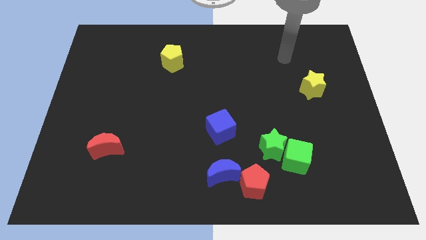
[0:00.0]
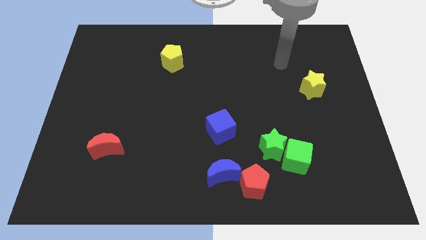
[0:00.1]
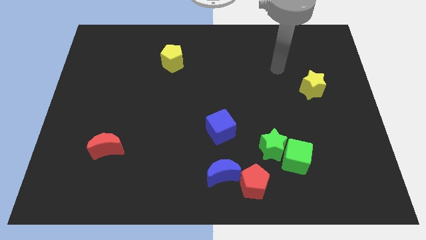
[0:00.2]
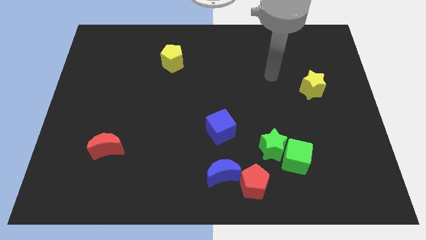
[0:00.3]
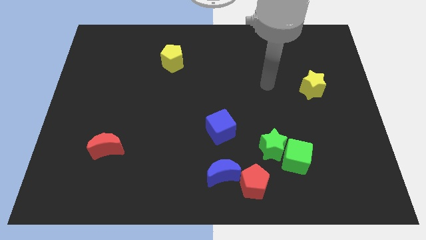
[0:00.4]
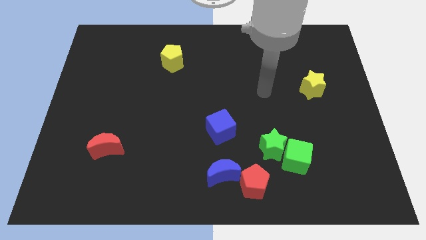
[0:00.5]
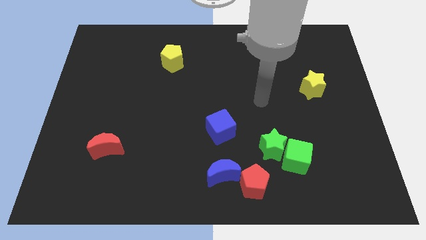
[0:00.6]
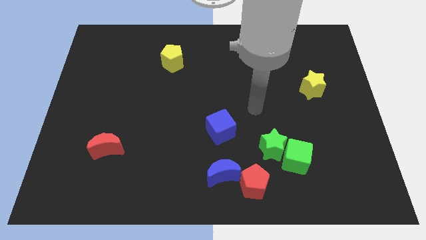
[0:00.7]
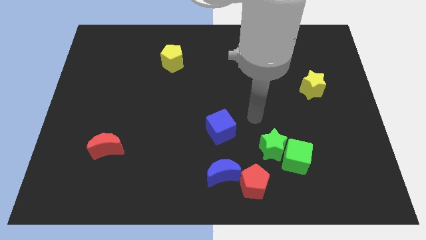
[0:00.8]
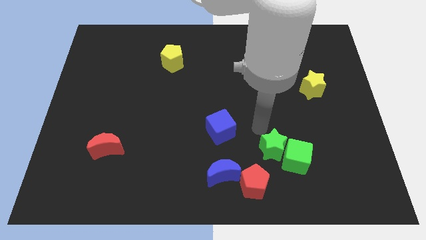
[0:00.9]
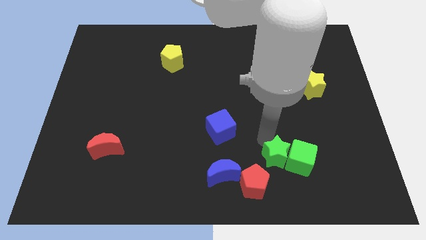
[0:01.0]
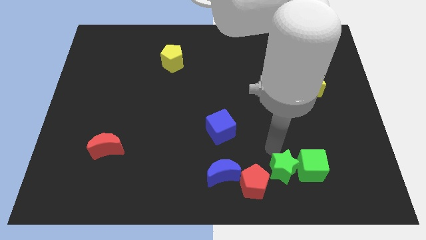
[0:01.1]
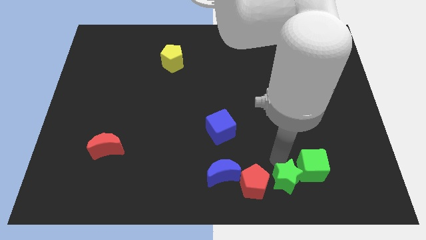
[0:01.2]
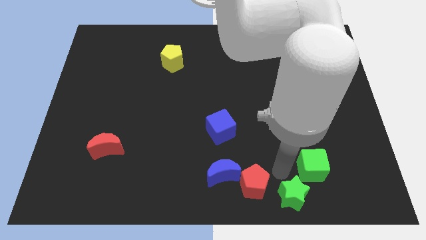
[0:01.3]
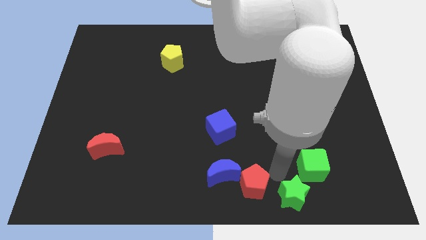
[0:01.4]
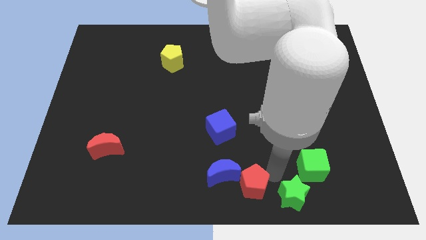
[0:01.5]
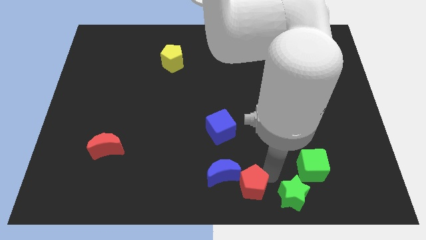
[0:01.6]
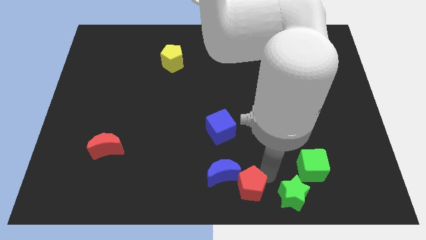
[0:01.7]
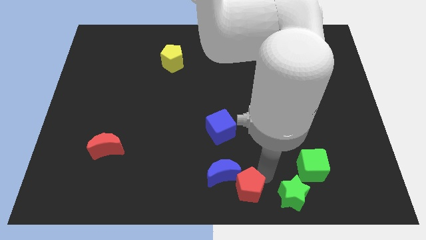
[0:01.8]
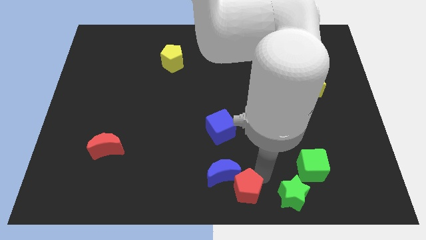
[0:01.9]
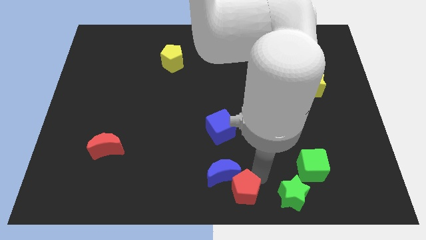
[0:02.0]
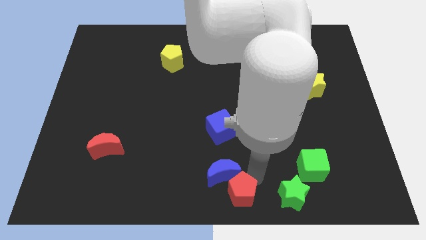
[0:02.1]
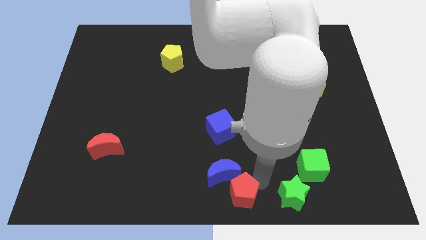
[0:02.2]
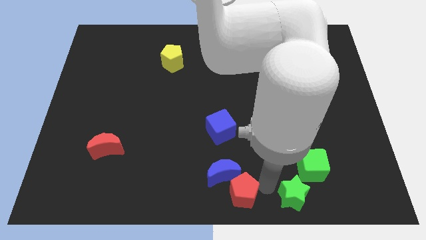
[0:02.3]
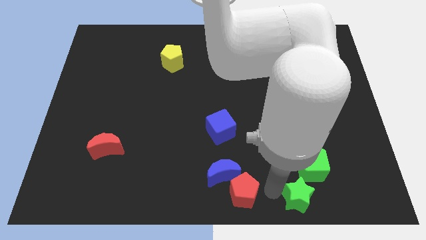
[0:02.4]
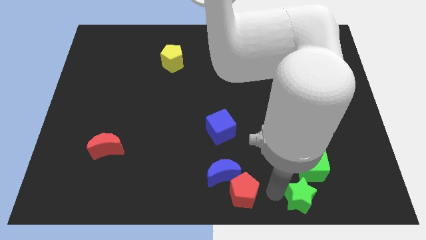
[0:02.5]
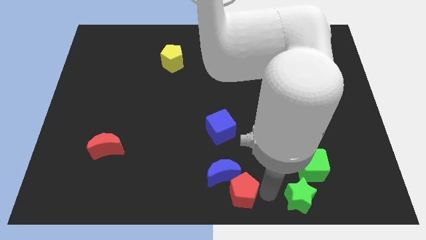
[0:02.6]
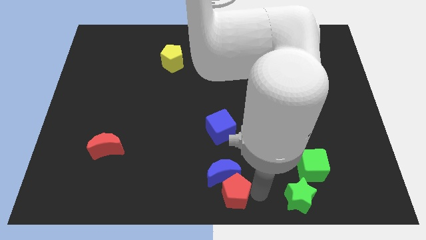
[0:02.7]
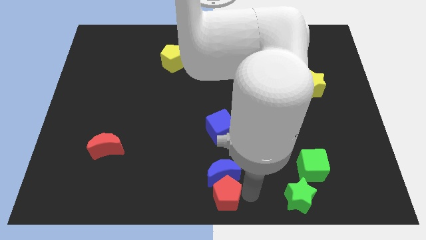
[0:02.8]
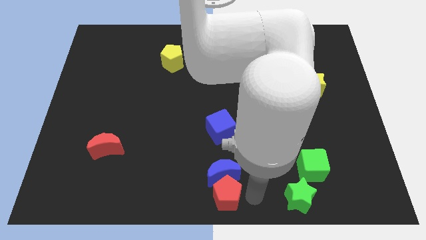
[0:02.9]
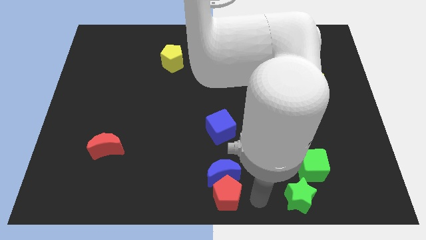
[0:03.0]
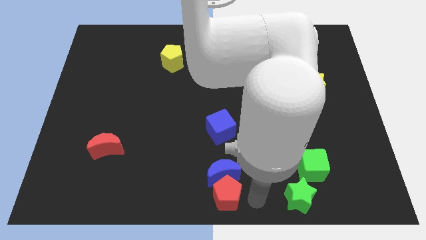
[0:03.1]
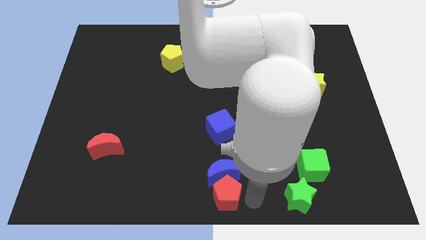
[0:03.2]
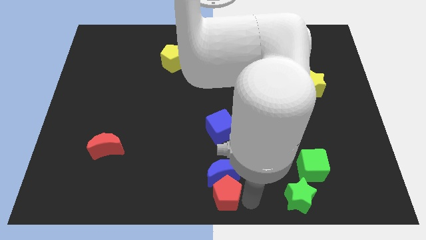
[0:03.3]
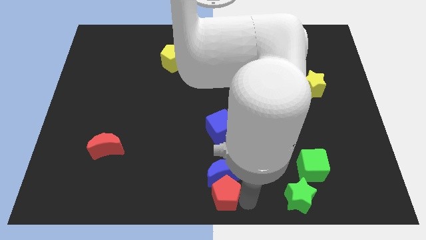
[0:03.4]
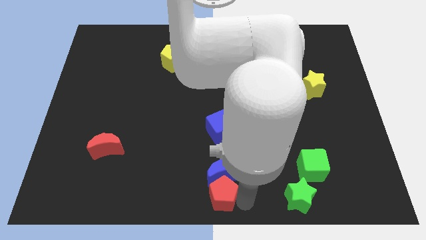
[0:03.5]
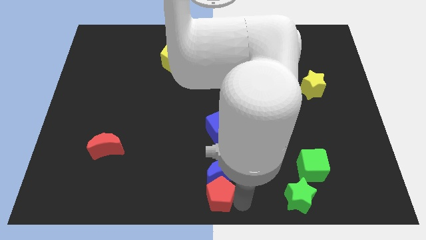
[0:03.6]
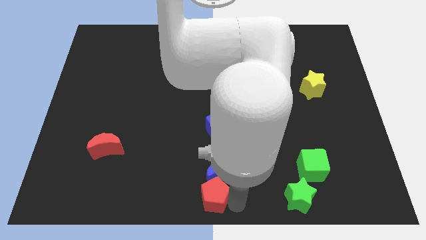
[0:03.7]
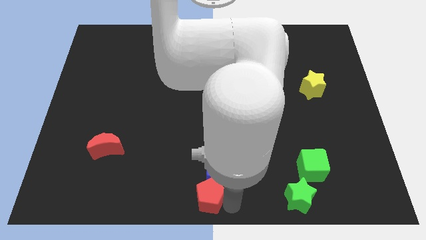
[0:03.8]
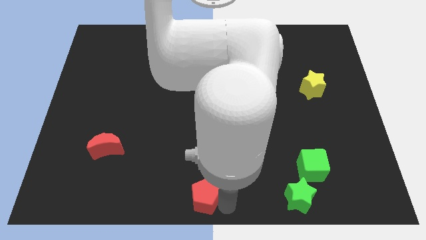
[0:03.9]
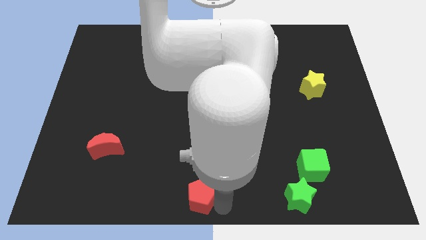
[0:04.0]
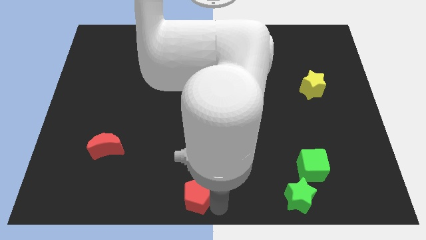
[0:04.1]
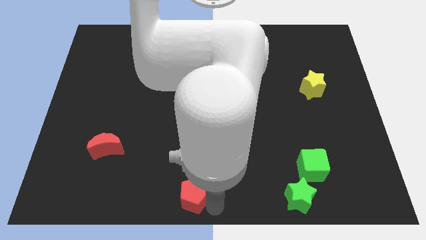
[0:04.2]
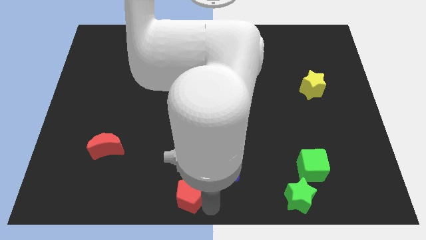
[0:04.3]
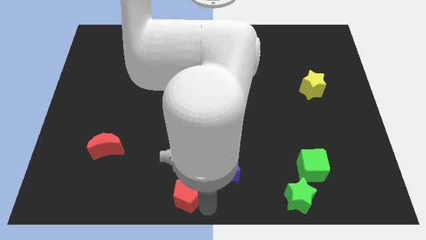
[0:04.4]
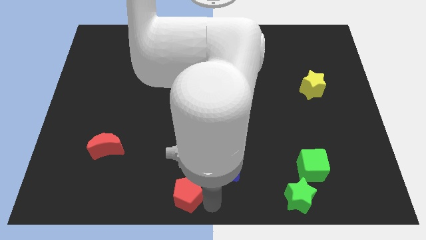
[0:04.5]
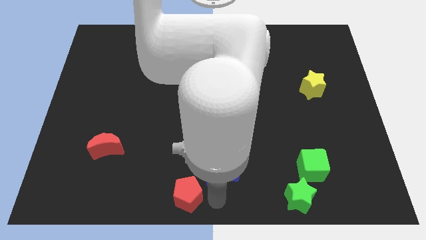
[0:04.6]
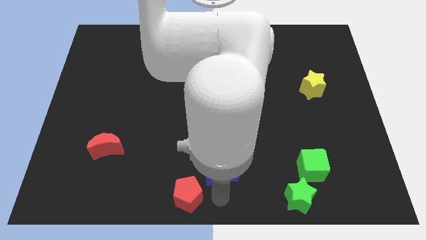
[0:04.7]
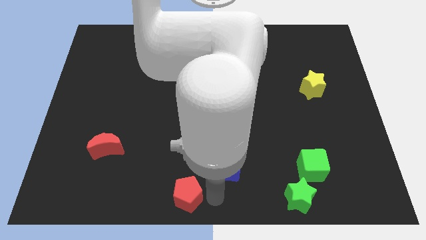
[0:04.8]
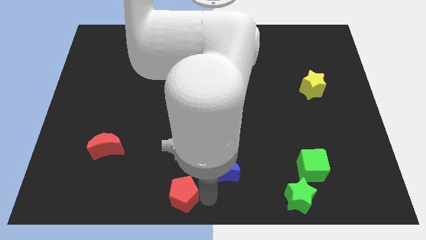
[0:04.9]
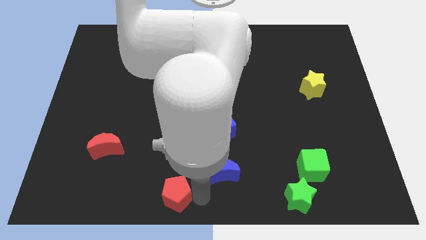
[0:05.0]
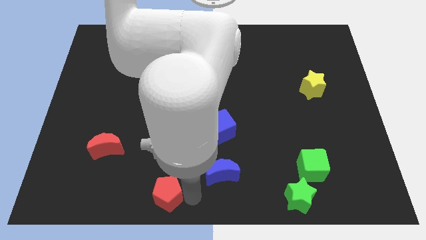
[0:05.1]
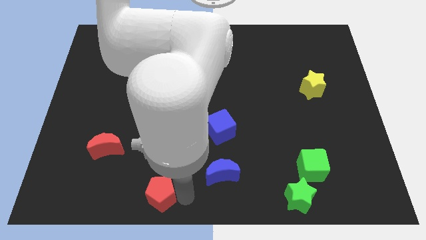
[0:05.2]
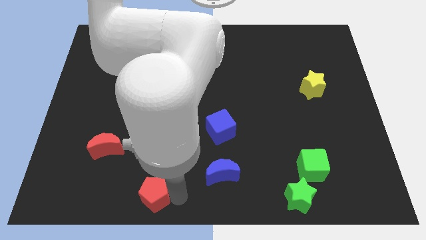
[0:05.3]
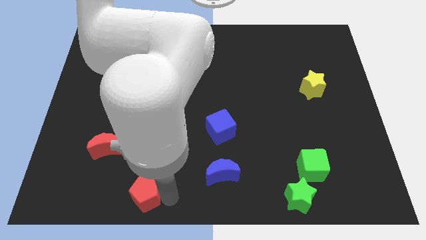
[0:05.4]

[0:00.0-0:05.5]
move the red pentagon to the left

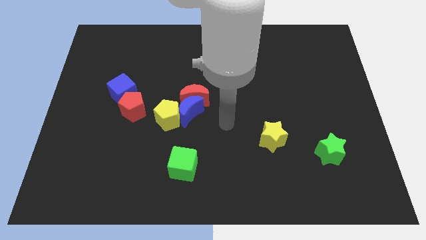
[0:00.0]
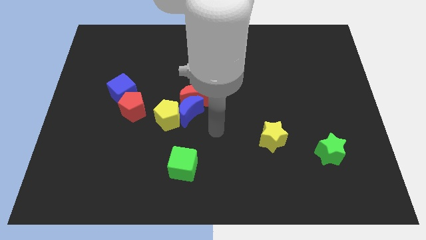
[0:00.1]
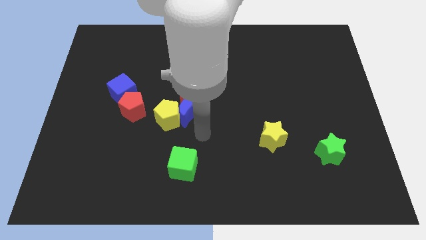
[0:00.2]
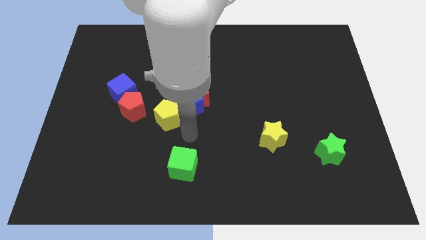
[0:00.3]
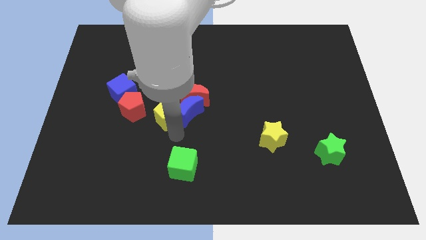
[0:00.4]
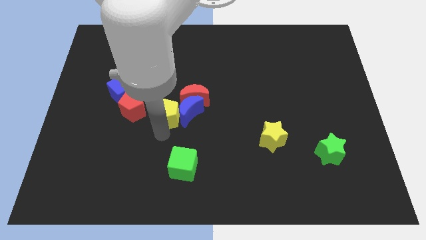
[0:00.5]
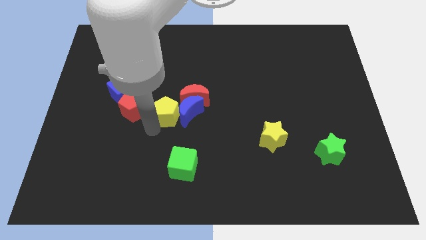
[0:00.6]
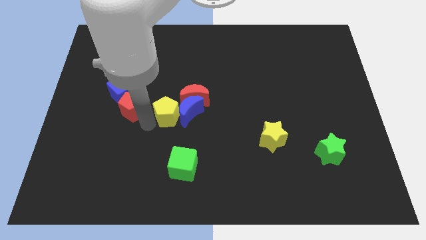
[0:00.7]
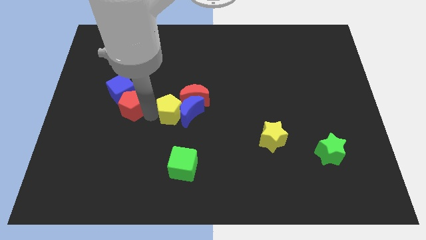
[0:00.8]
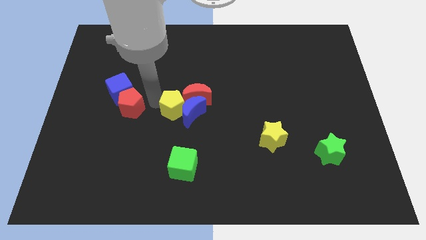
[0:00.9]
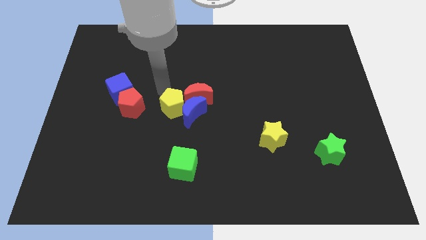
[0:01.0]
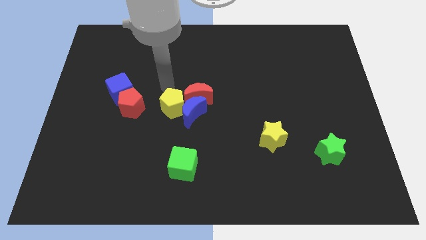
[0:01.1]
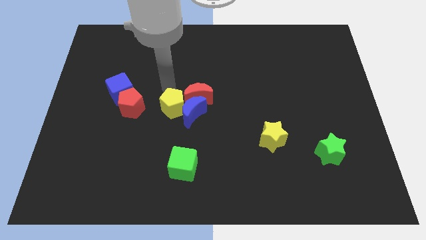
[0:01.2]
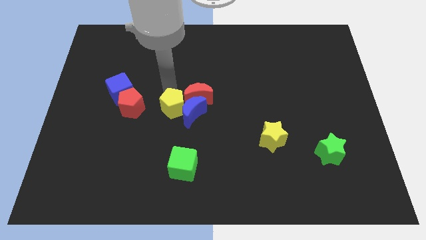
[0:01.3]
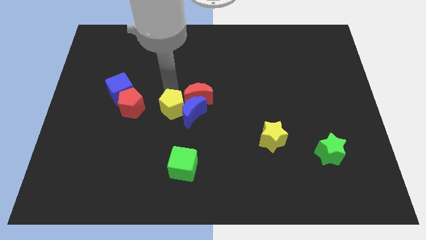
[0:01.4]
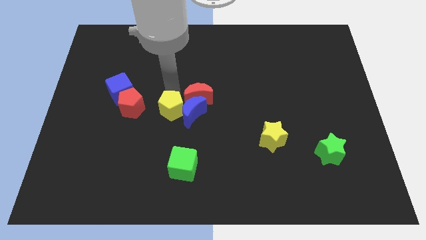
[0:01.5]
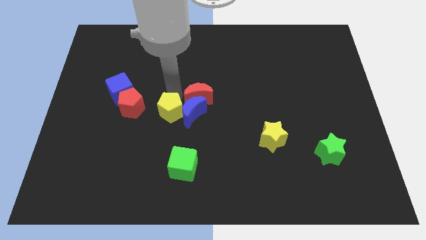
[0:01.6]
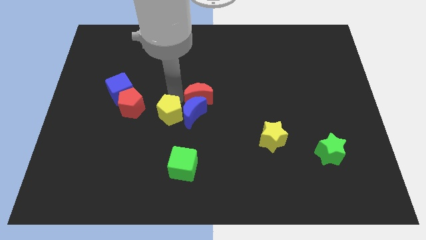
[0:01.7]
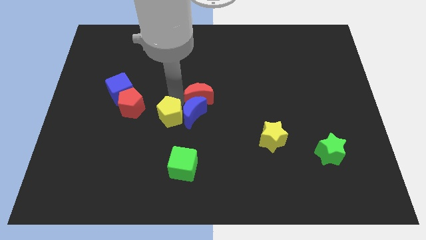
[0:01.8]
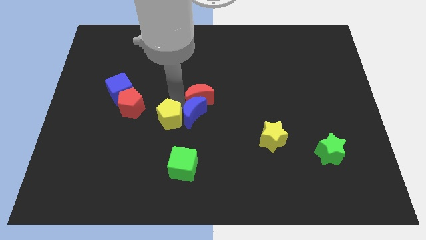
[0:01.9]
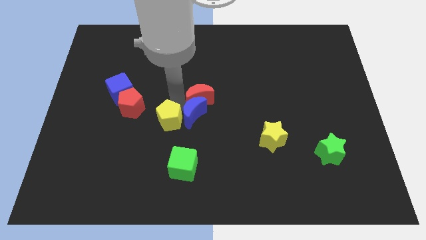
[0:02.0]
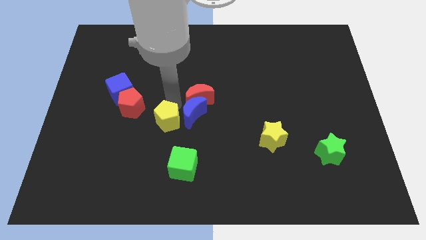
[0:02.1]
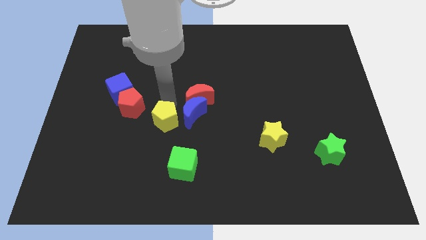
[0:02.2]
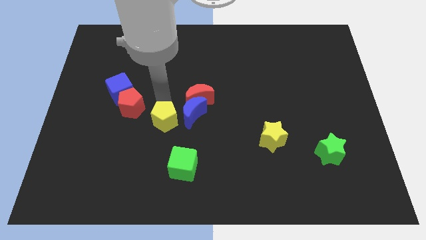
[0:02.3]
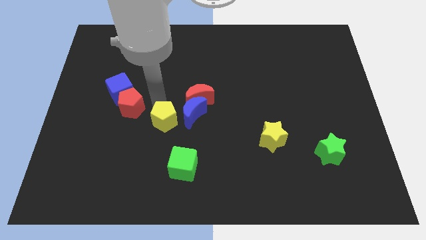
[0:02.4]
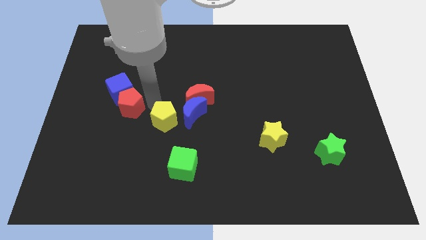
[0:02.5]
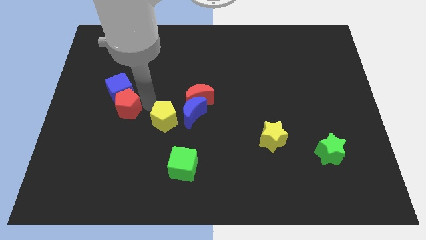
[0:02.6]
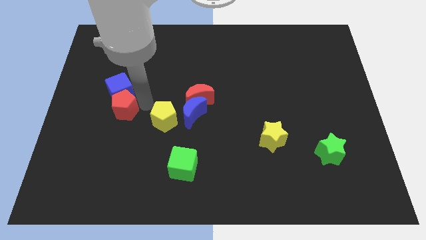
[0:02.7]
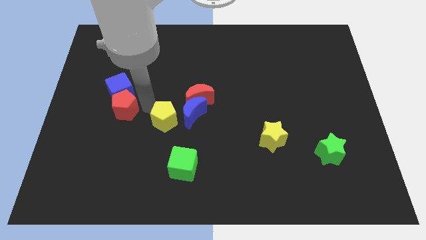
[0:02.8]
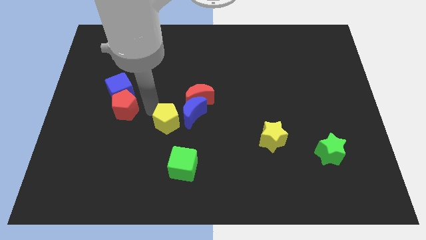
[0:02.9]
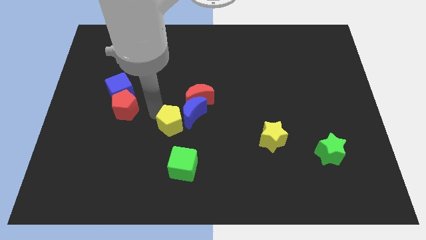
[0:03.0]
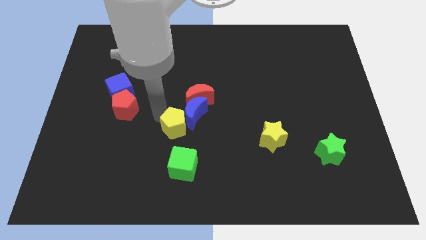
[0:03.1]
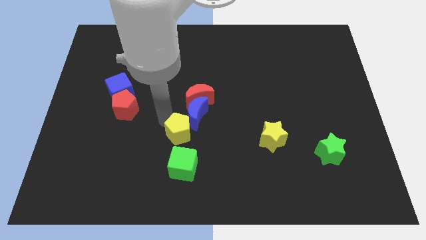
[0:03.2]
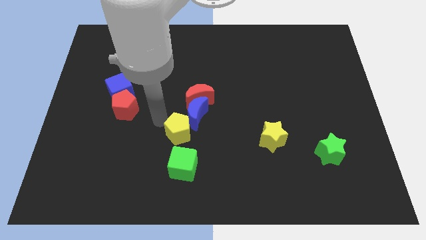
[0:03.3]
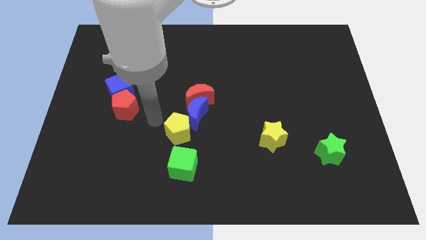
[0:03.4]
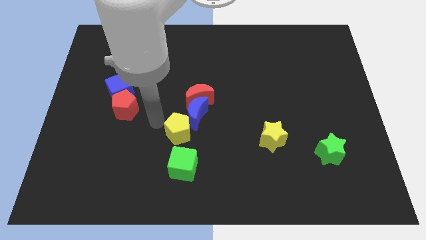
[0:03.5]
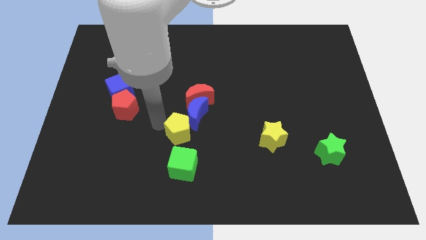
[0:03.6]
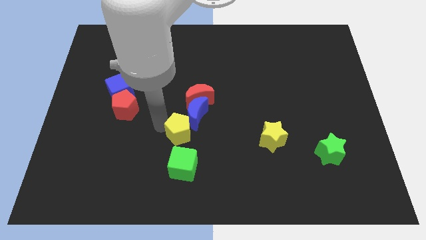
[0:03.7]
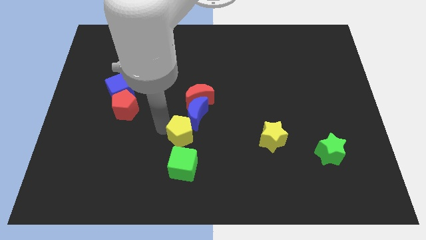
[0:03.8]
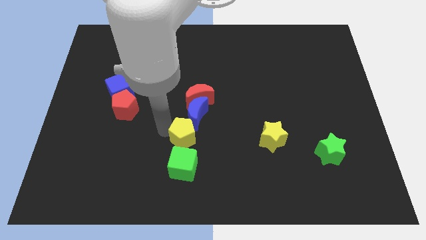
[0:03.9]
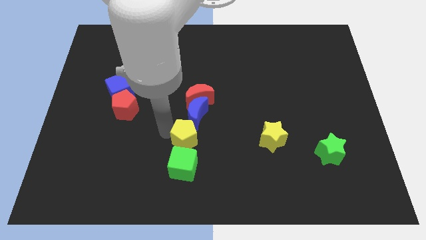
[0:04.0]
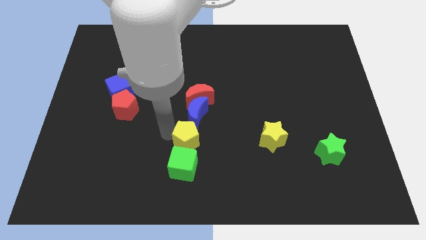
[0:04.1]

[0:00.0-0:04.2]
slide the yellow pentagon diagonally downwards and to the right a bit
